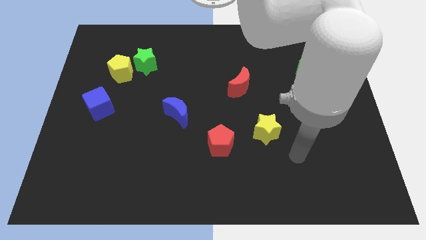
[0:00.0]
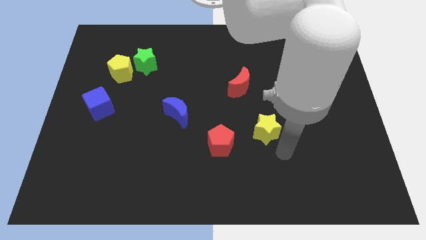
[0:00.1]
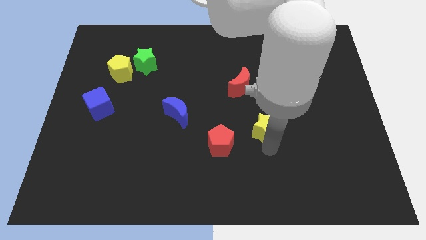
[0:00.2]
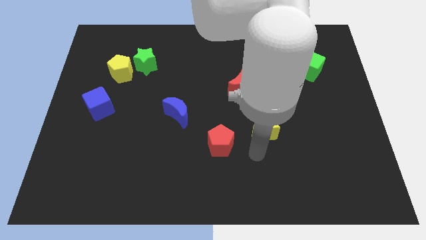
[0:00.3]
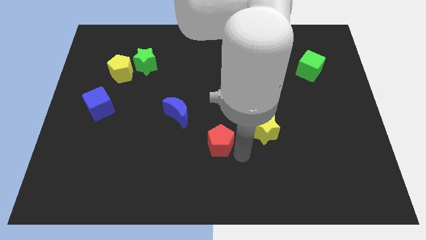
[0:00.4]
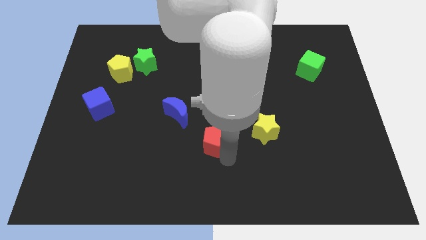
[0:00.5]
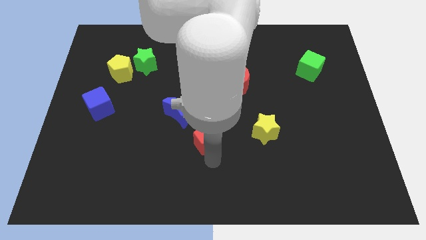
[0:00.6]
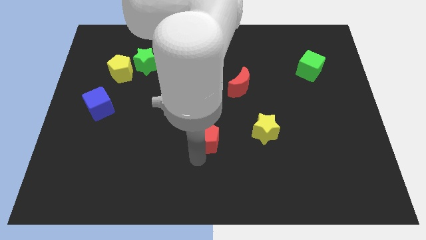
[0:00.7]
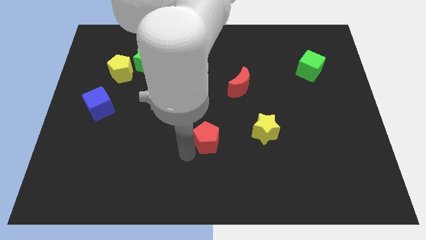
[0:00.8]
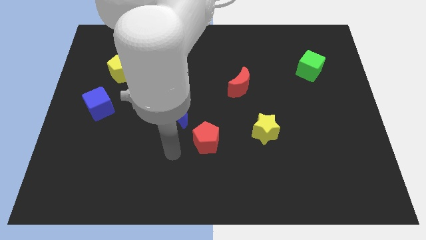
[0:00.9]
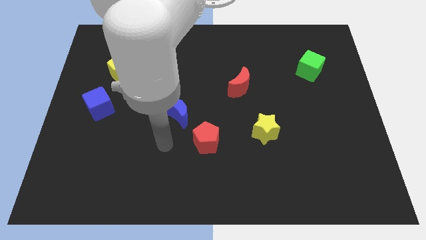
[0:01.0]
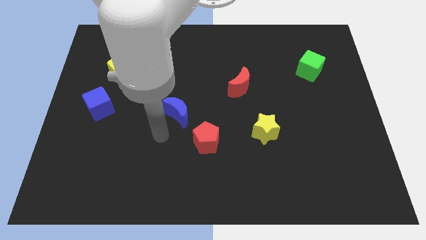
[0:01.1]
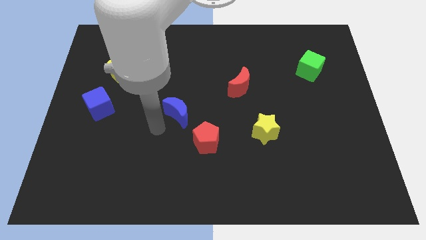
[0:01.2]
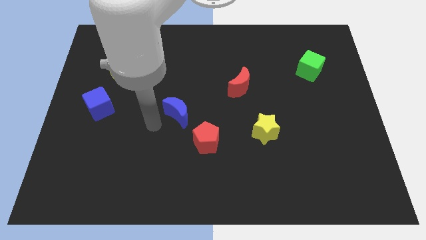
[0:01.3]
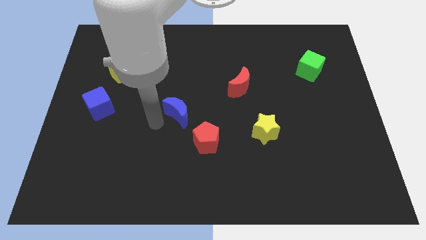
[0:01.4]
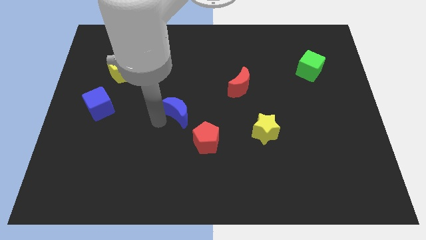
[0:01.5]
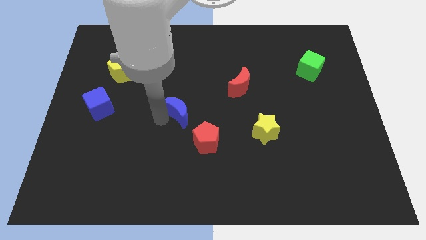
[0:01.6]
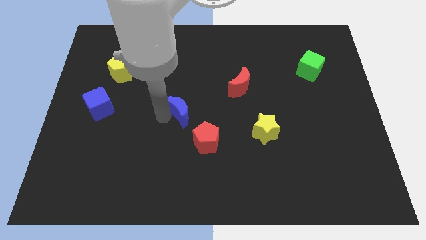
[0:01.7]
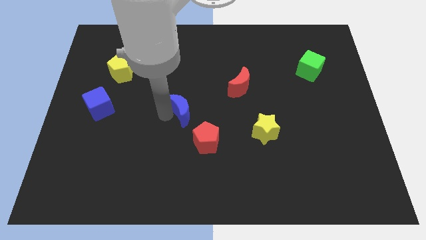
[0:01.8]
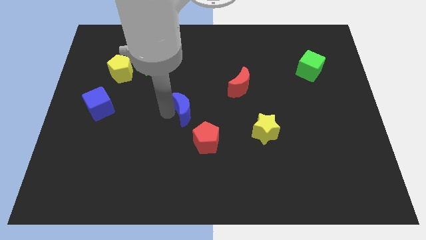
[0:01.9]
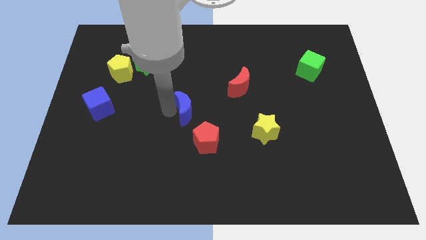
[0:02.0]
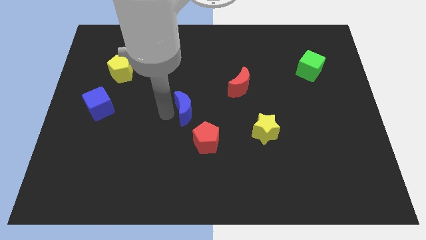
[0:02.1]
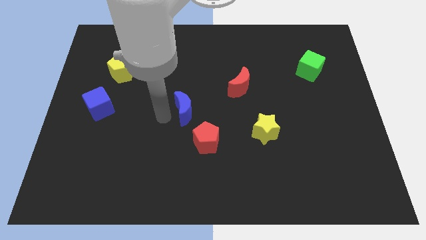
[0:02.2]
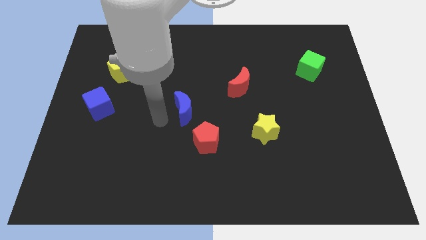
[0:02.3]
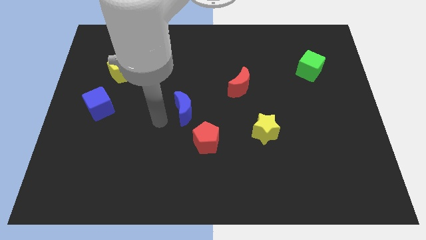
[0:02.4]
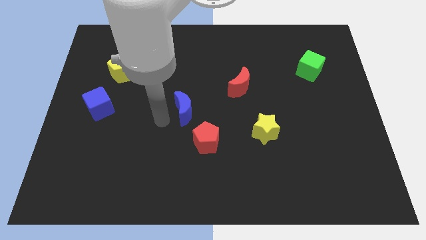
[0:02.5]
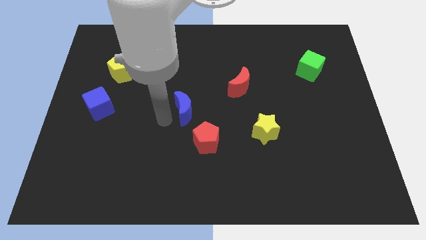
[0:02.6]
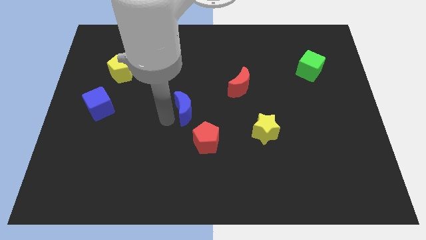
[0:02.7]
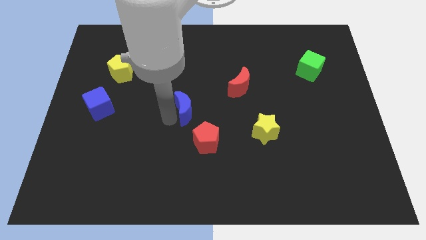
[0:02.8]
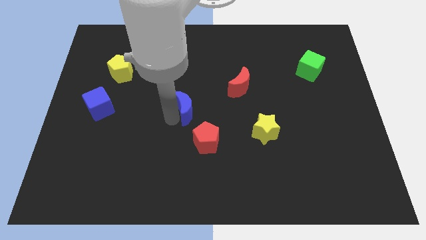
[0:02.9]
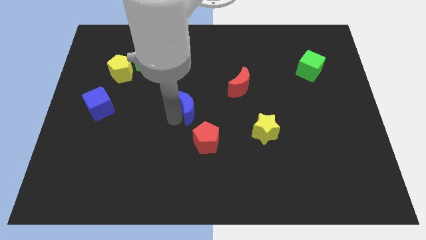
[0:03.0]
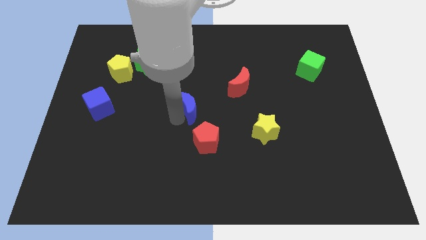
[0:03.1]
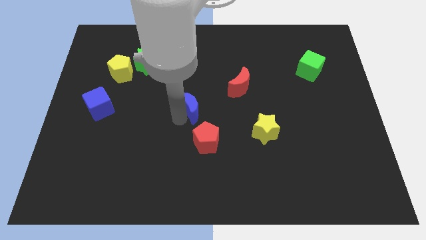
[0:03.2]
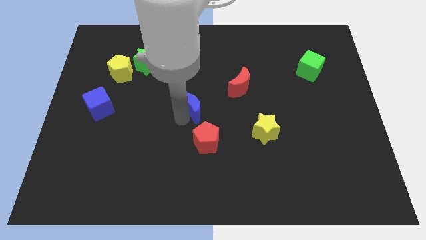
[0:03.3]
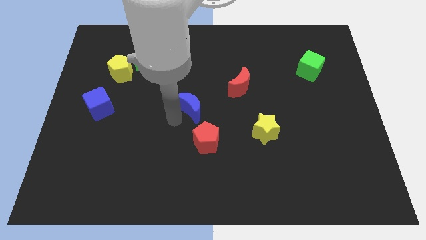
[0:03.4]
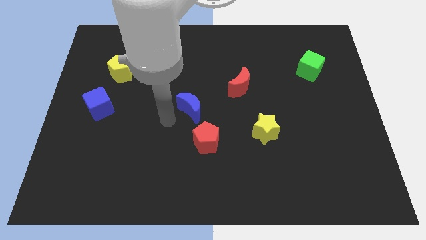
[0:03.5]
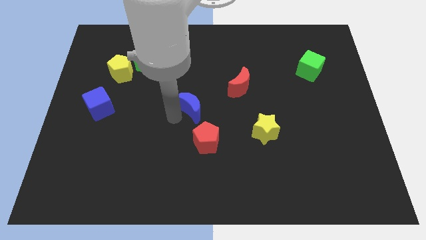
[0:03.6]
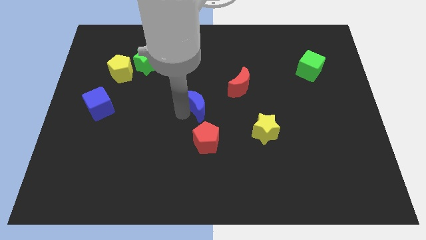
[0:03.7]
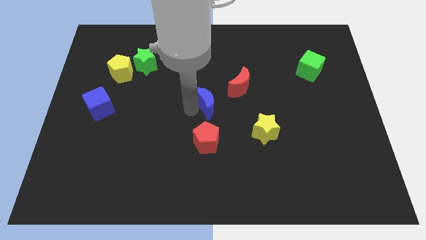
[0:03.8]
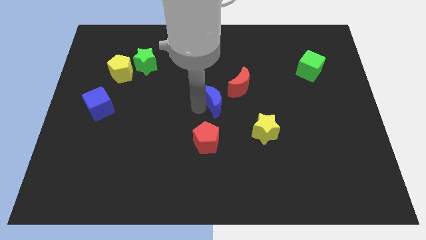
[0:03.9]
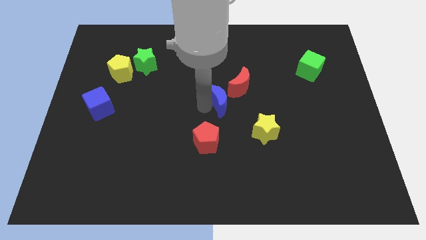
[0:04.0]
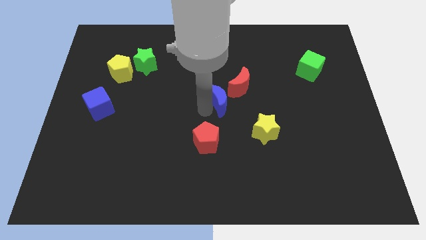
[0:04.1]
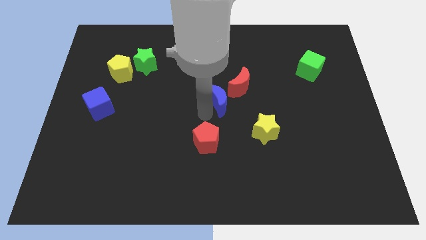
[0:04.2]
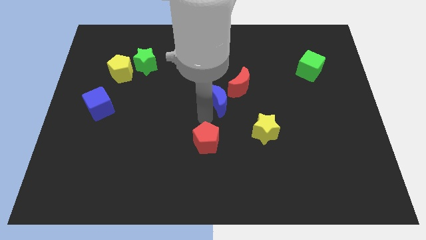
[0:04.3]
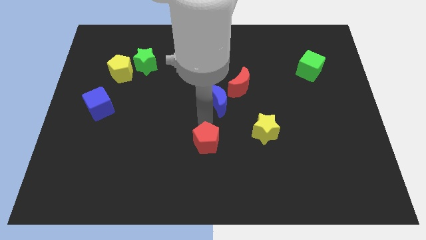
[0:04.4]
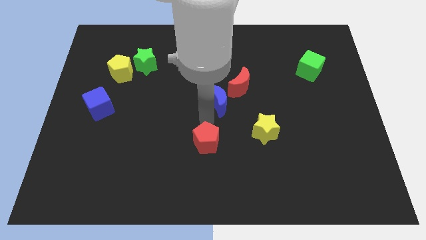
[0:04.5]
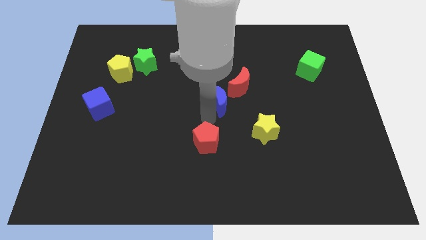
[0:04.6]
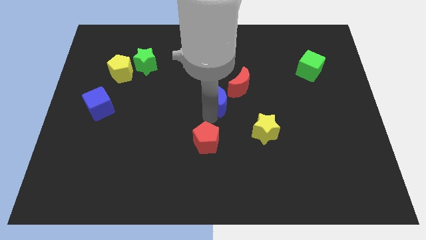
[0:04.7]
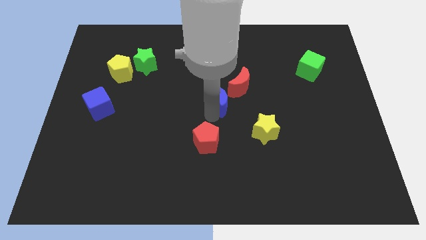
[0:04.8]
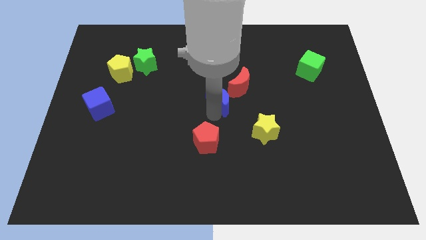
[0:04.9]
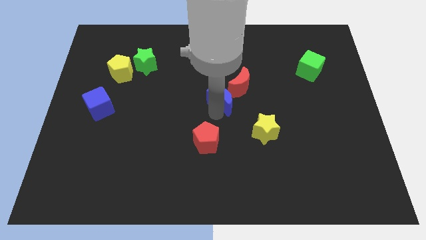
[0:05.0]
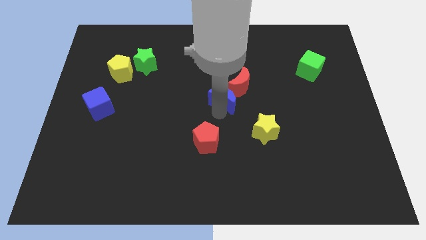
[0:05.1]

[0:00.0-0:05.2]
push the blue moon to the red moon

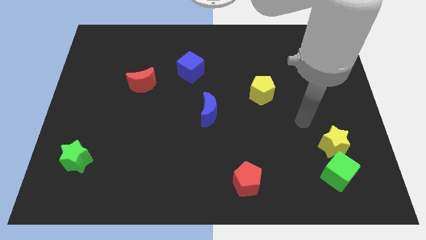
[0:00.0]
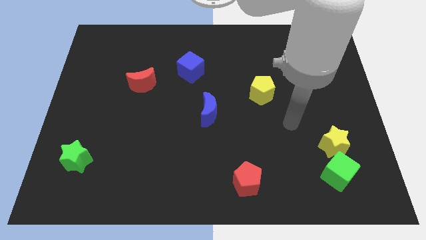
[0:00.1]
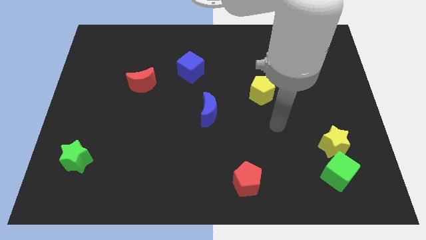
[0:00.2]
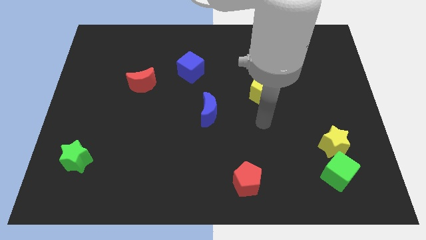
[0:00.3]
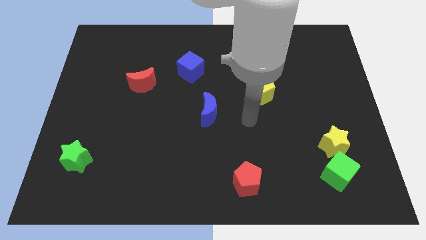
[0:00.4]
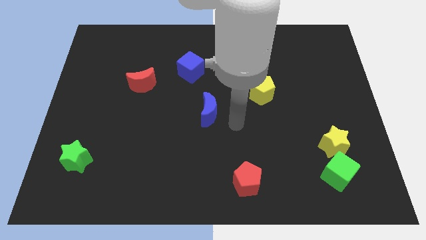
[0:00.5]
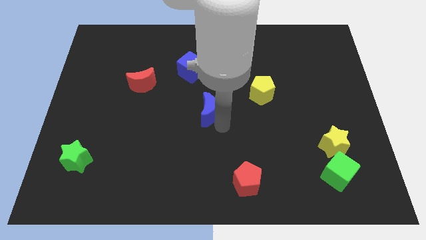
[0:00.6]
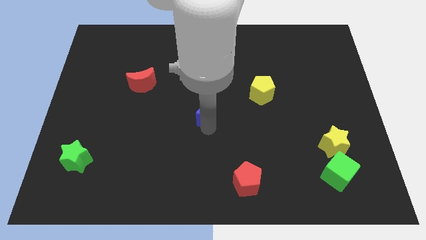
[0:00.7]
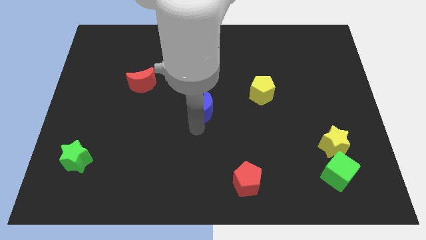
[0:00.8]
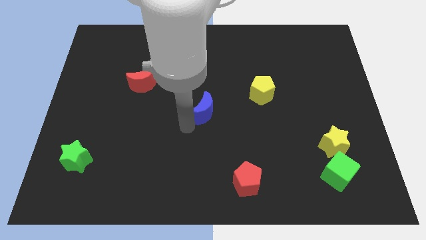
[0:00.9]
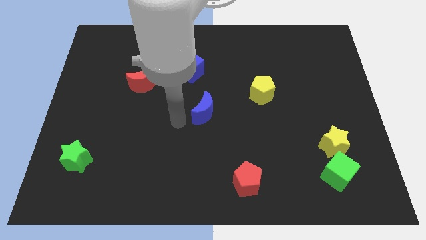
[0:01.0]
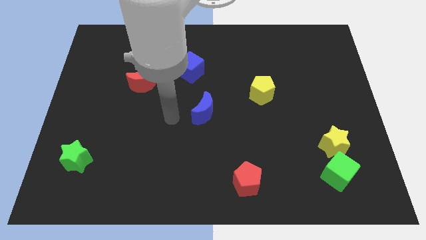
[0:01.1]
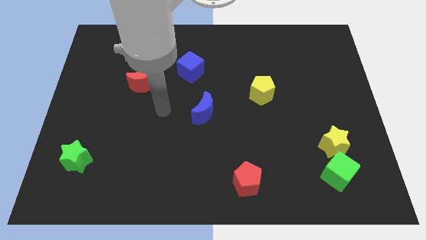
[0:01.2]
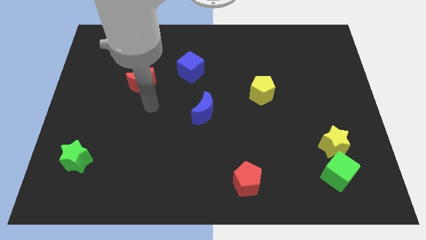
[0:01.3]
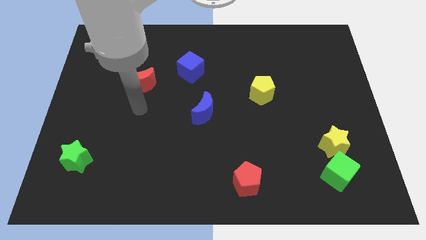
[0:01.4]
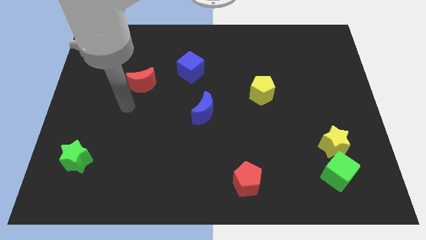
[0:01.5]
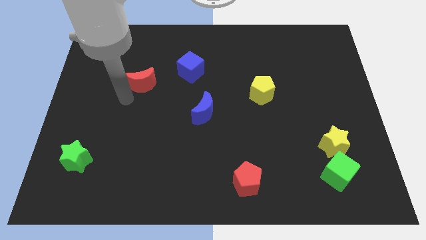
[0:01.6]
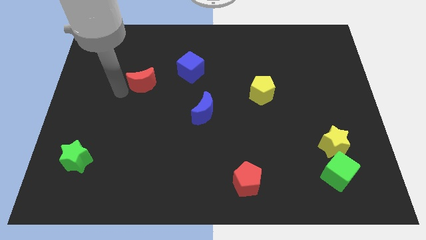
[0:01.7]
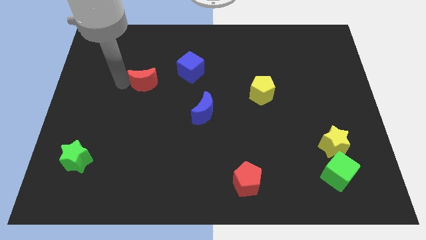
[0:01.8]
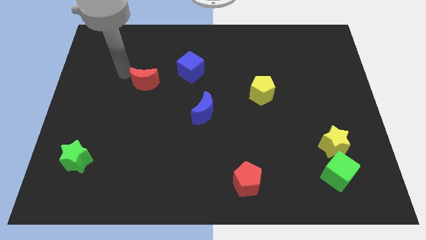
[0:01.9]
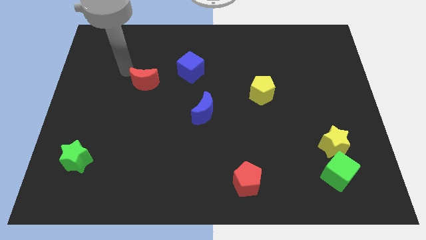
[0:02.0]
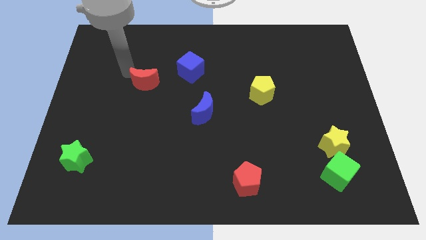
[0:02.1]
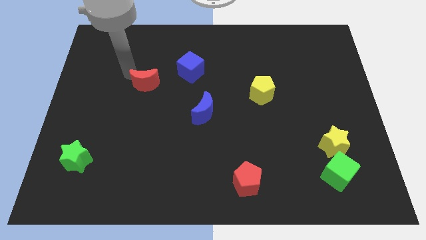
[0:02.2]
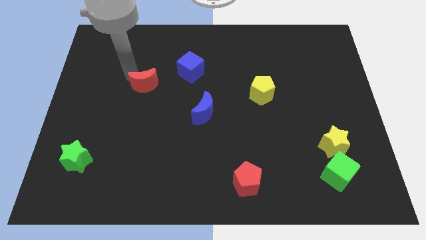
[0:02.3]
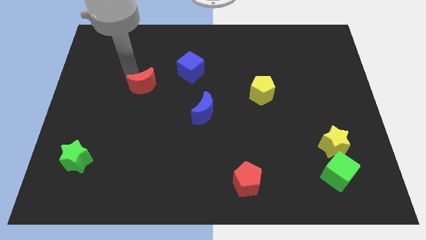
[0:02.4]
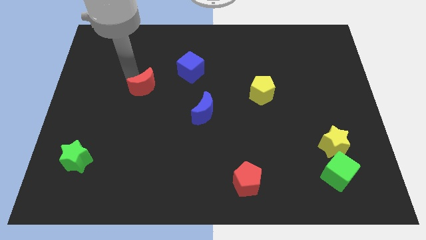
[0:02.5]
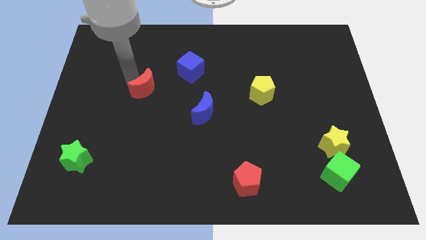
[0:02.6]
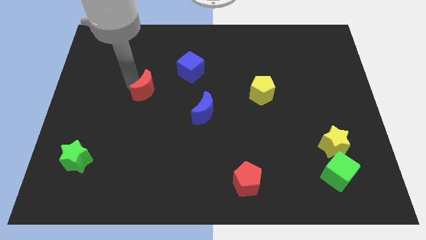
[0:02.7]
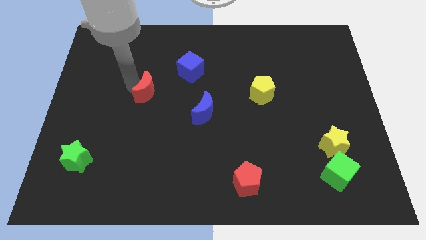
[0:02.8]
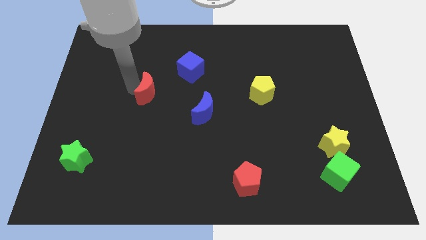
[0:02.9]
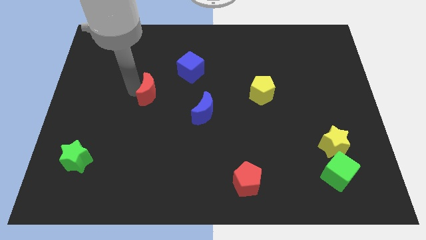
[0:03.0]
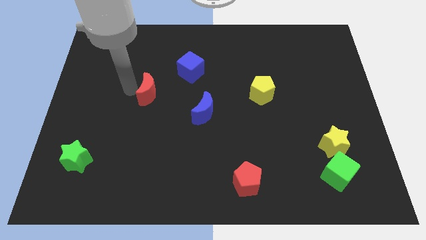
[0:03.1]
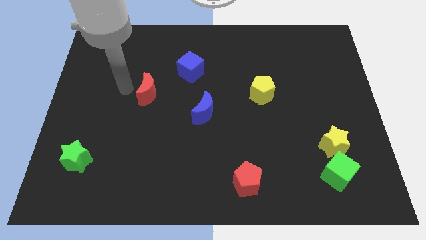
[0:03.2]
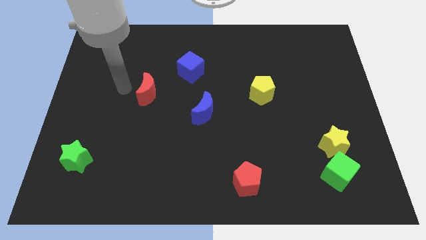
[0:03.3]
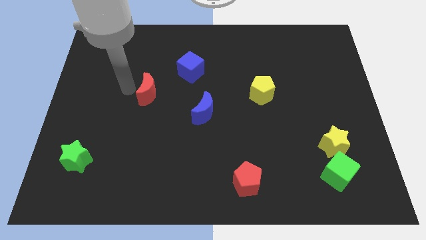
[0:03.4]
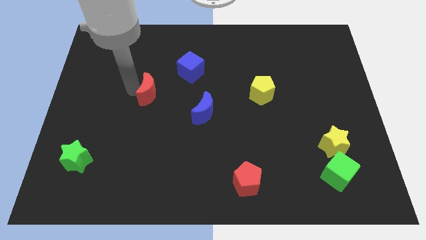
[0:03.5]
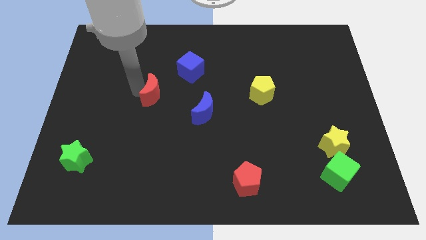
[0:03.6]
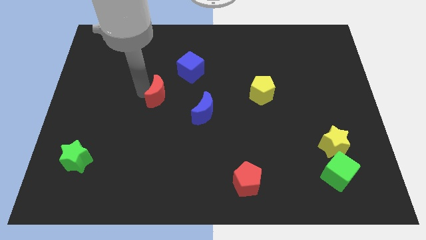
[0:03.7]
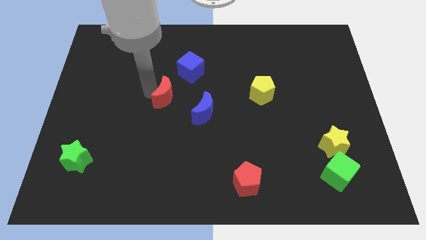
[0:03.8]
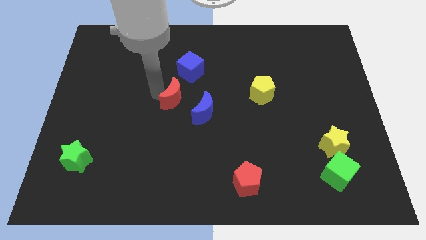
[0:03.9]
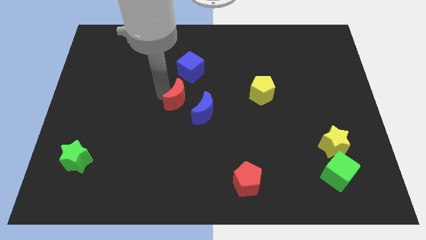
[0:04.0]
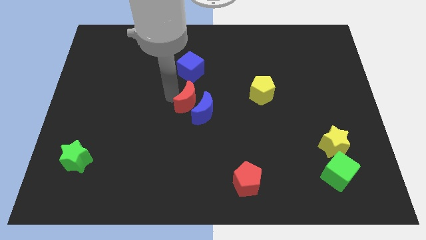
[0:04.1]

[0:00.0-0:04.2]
move the red moon towards the blue moon
